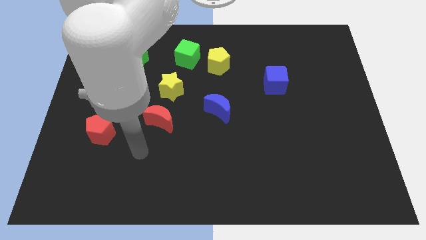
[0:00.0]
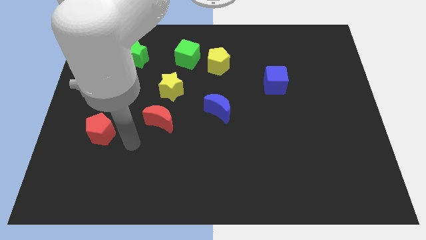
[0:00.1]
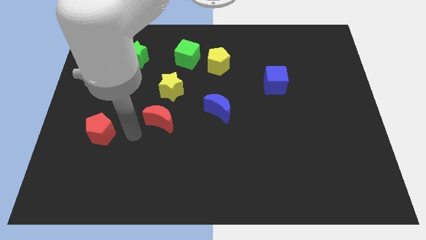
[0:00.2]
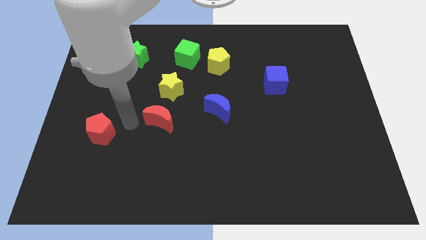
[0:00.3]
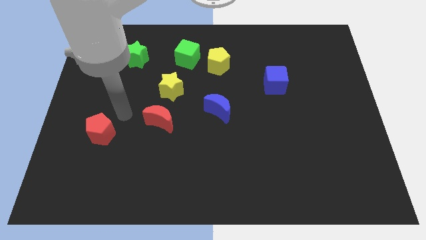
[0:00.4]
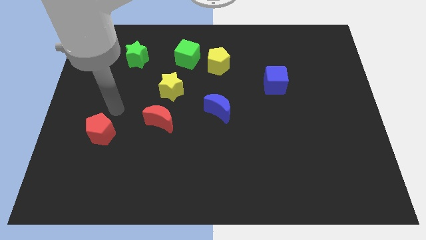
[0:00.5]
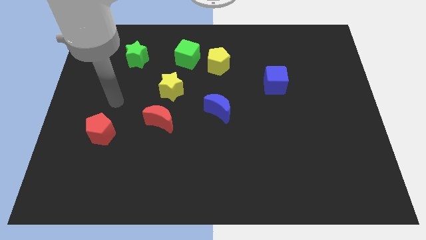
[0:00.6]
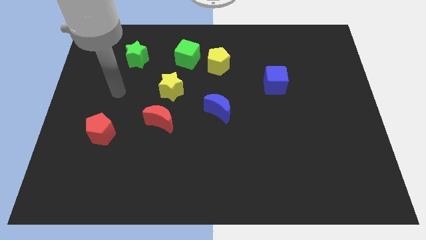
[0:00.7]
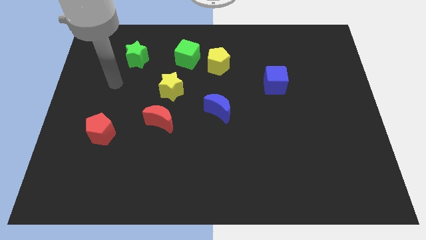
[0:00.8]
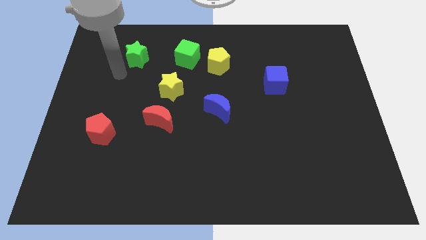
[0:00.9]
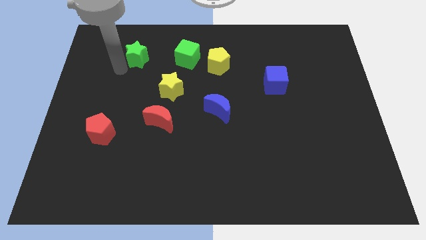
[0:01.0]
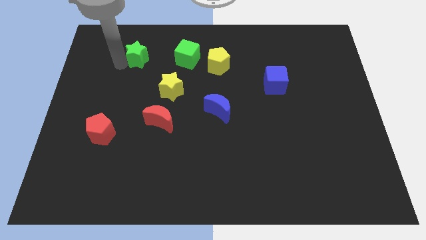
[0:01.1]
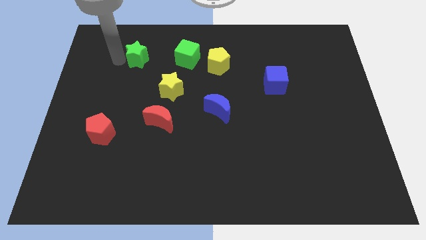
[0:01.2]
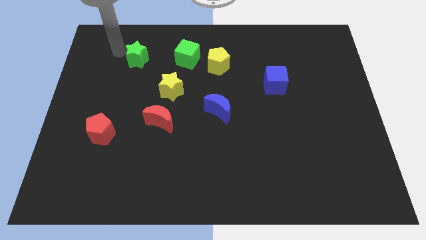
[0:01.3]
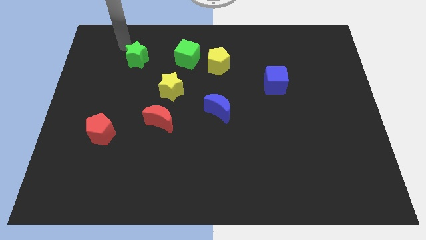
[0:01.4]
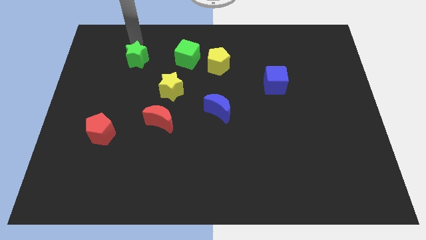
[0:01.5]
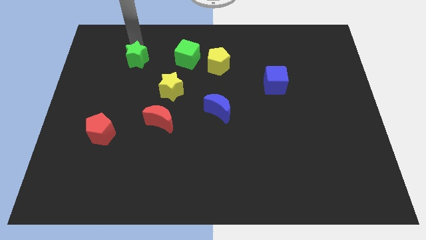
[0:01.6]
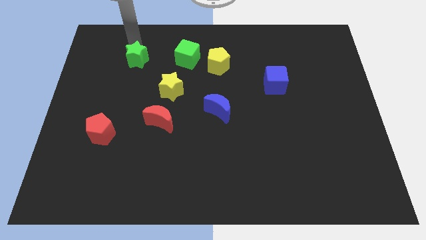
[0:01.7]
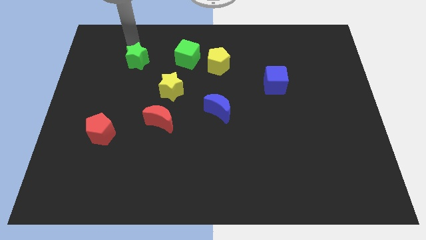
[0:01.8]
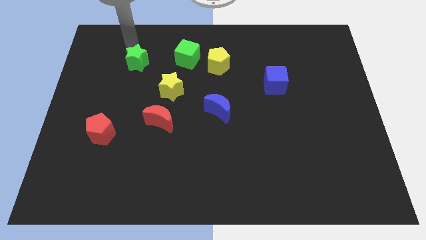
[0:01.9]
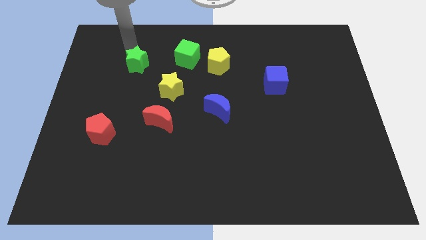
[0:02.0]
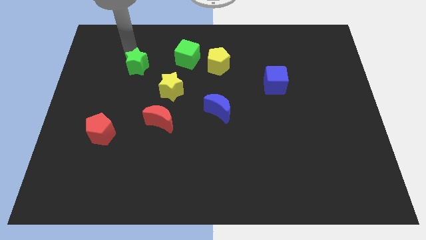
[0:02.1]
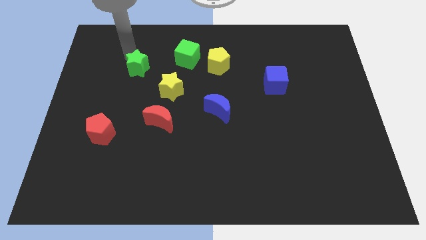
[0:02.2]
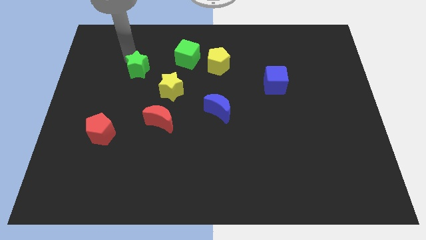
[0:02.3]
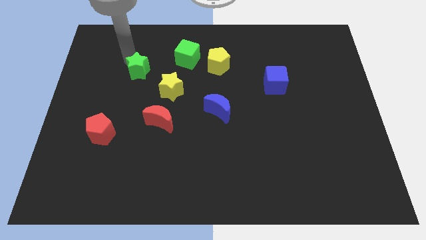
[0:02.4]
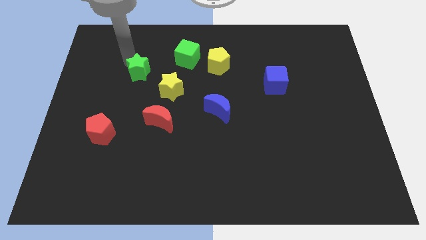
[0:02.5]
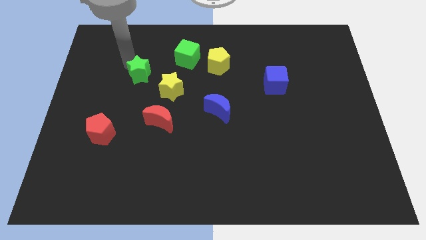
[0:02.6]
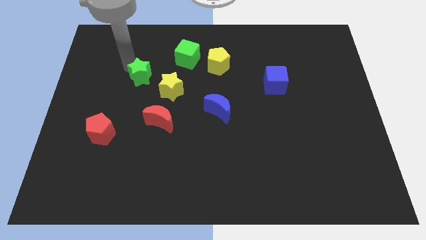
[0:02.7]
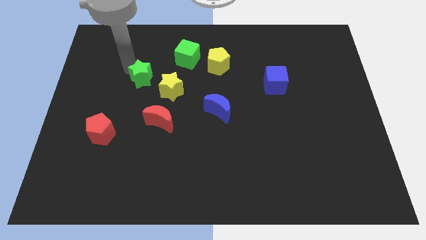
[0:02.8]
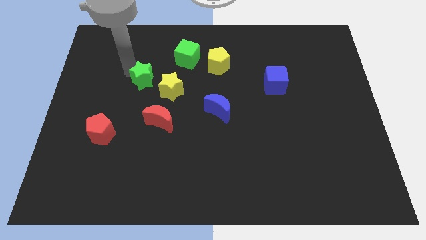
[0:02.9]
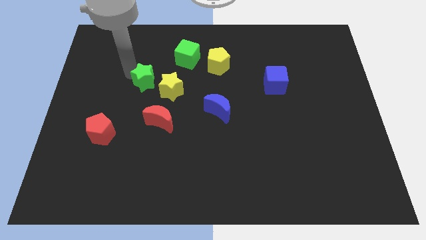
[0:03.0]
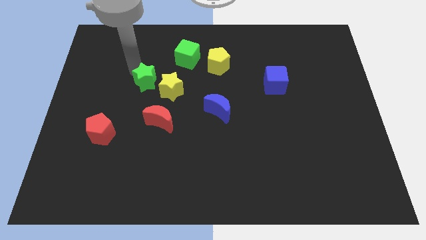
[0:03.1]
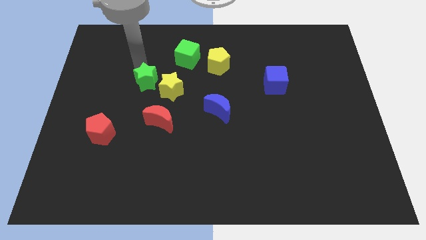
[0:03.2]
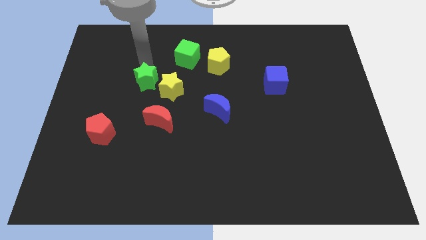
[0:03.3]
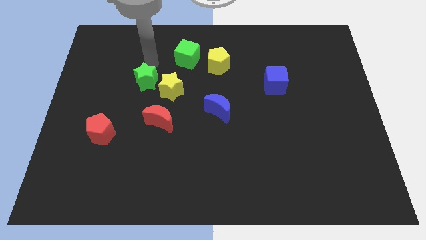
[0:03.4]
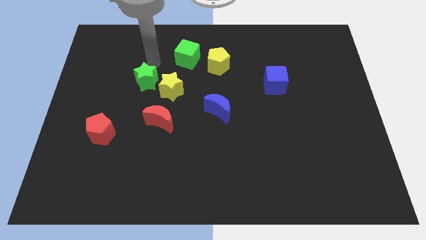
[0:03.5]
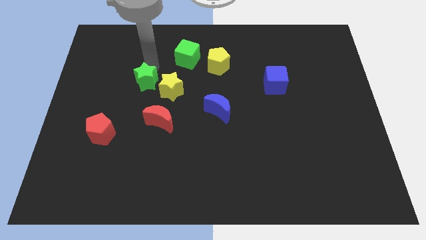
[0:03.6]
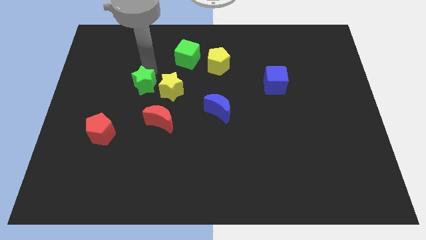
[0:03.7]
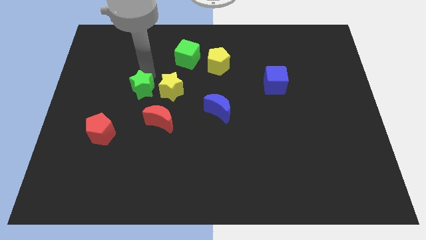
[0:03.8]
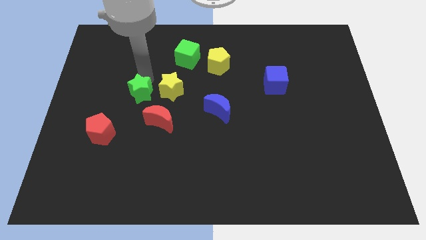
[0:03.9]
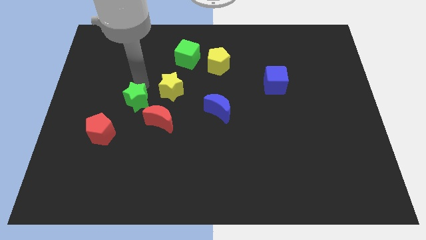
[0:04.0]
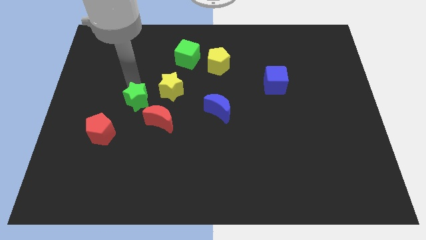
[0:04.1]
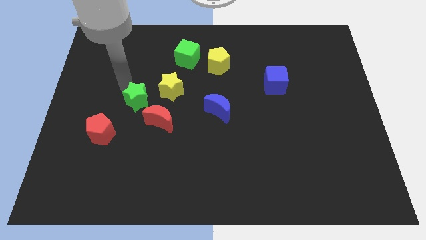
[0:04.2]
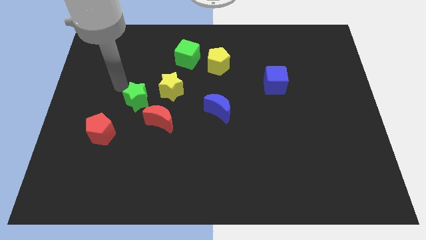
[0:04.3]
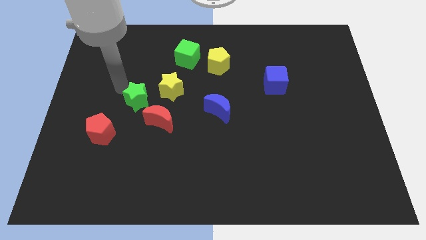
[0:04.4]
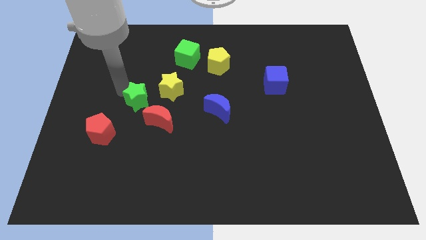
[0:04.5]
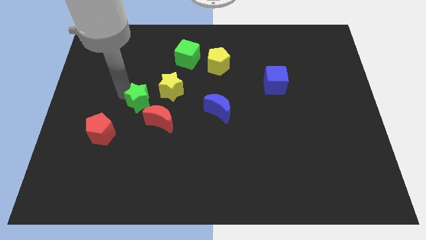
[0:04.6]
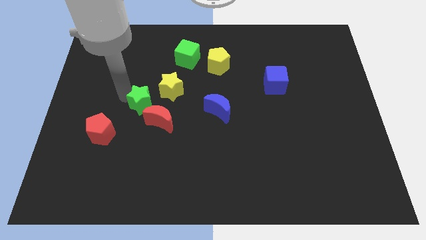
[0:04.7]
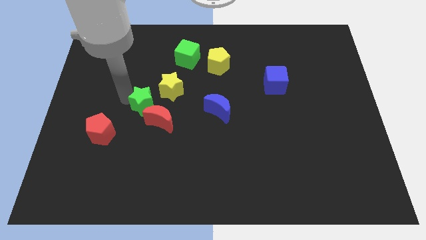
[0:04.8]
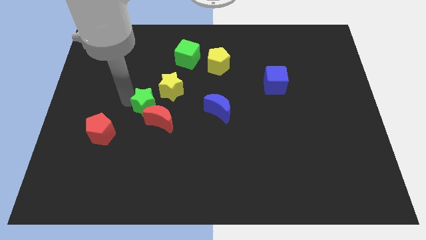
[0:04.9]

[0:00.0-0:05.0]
move the green star next to the red moon

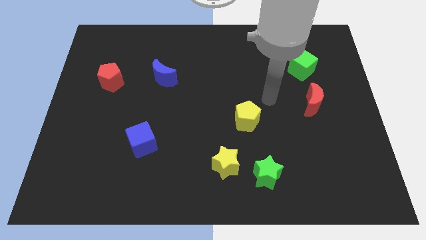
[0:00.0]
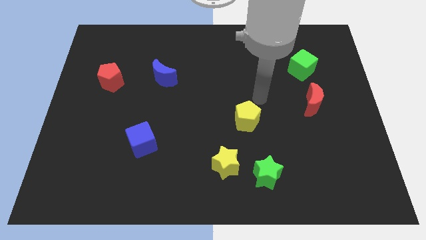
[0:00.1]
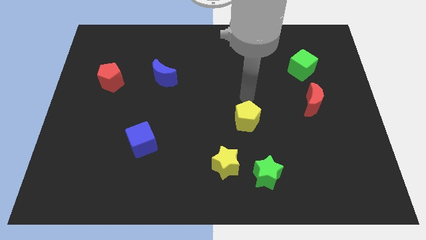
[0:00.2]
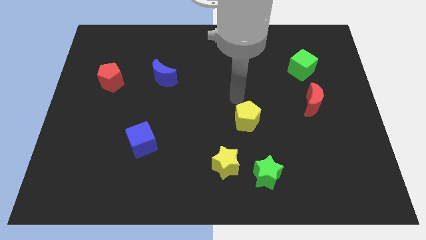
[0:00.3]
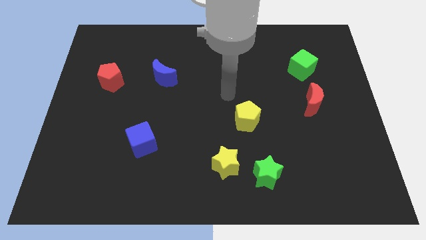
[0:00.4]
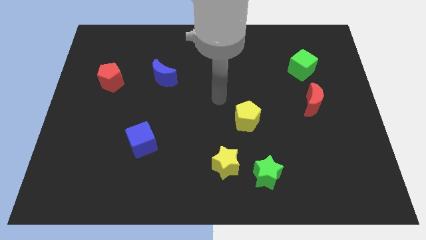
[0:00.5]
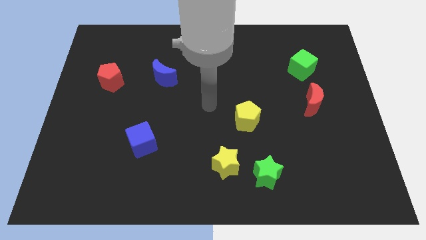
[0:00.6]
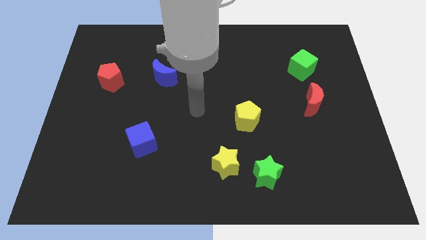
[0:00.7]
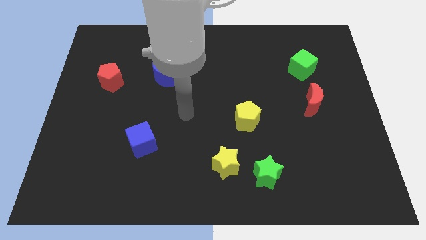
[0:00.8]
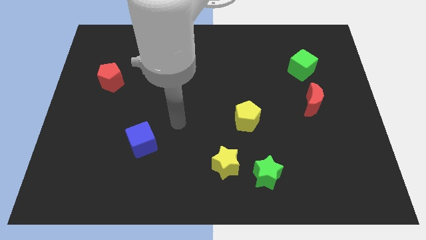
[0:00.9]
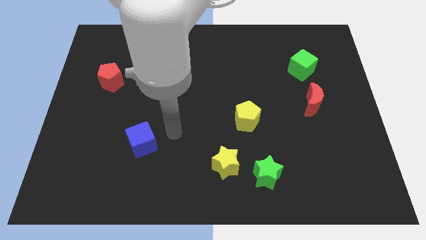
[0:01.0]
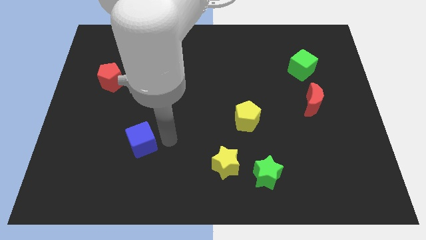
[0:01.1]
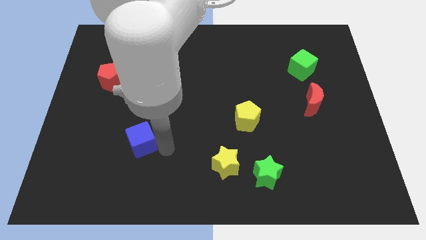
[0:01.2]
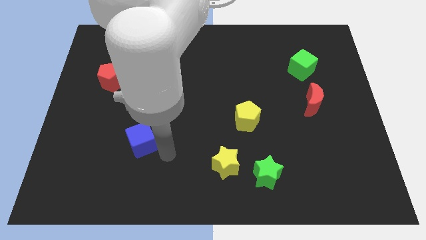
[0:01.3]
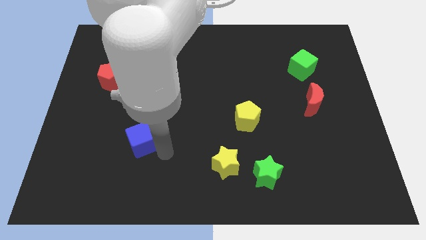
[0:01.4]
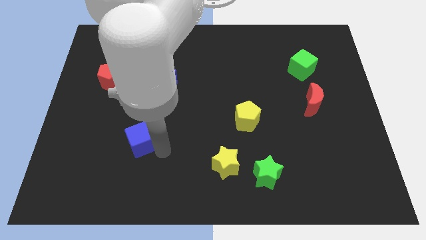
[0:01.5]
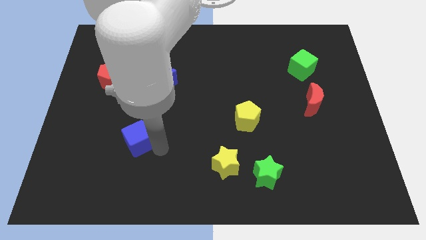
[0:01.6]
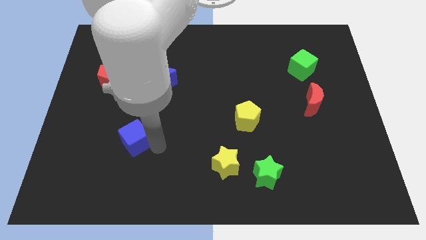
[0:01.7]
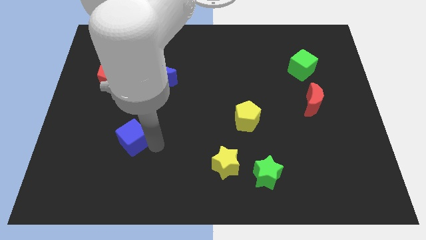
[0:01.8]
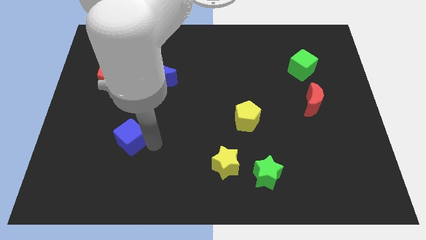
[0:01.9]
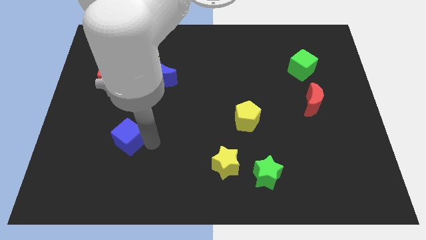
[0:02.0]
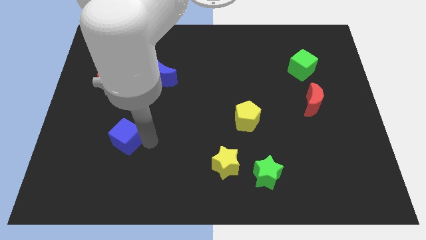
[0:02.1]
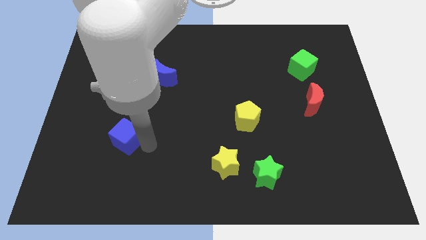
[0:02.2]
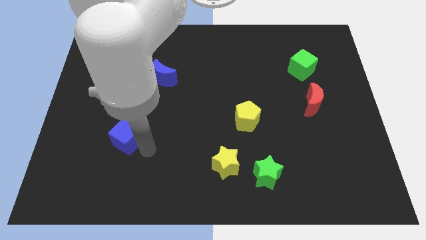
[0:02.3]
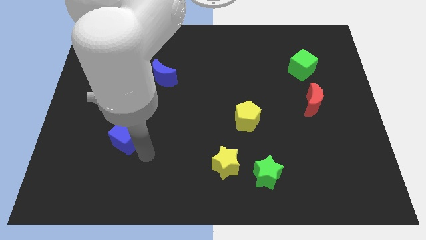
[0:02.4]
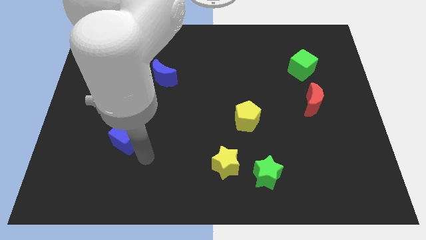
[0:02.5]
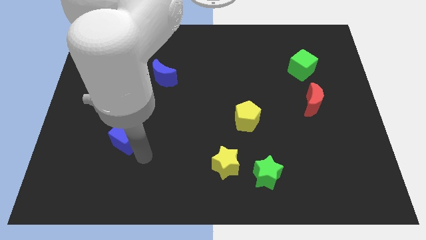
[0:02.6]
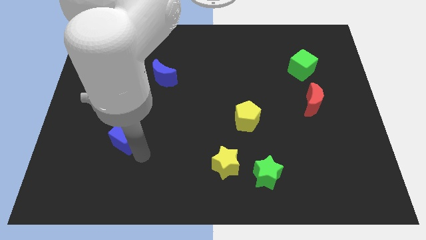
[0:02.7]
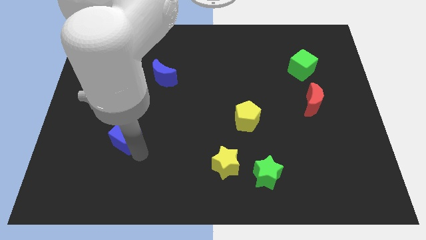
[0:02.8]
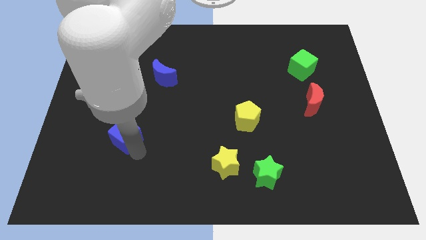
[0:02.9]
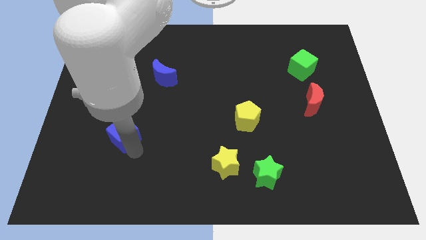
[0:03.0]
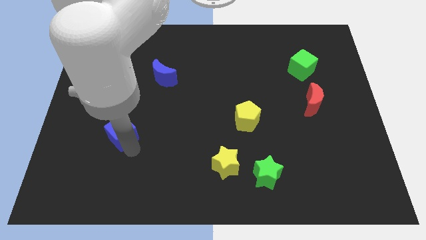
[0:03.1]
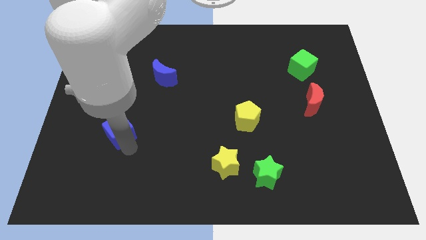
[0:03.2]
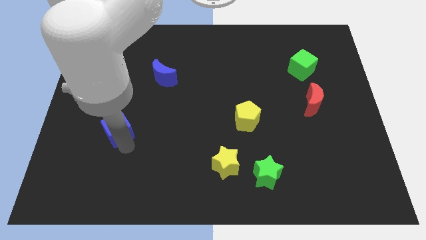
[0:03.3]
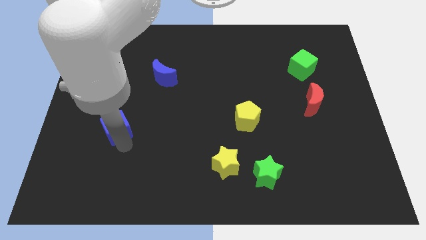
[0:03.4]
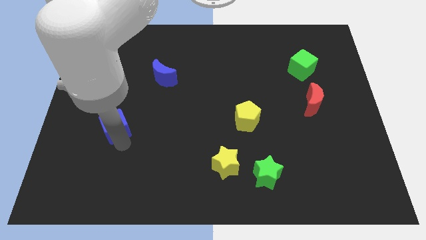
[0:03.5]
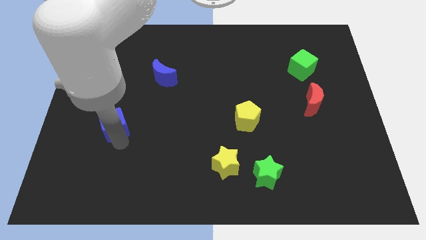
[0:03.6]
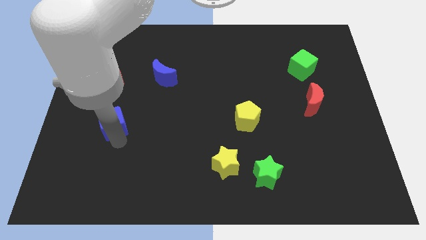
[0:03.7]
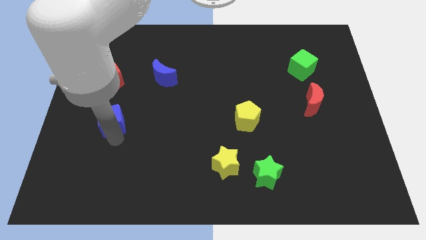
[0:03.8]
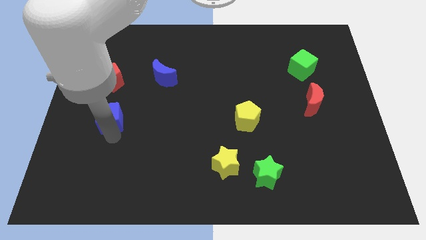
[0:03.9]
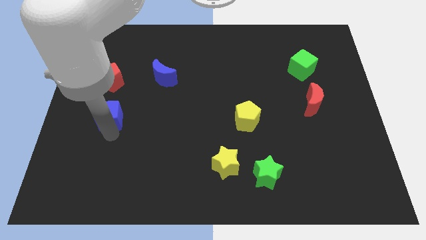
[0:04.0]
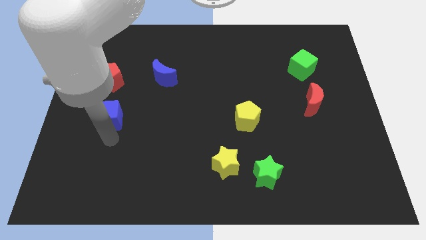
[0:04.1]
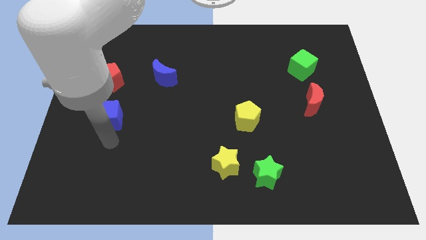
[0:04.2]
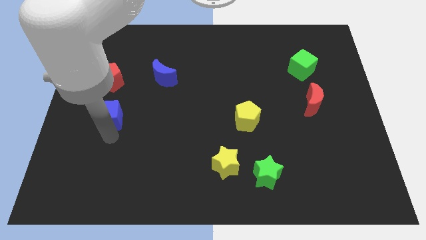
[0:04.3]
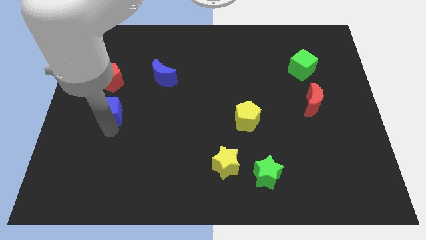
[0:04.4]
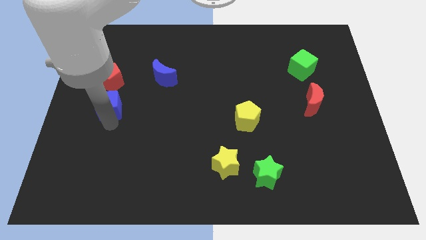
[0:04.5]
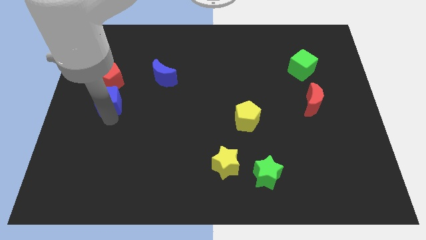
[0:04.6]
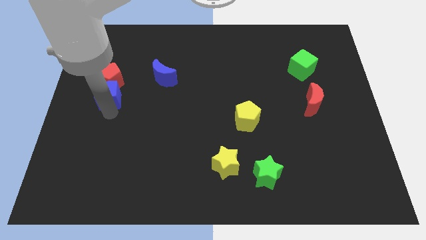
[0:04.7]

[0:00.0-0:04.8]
put the blue cube to the red pentagon
